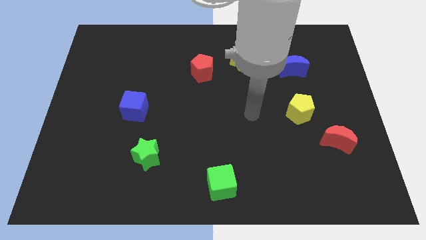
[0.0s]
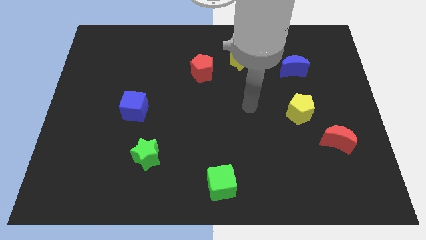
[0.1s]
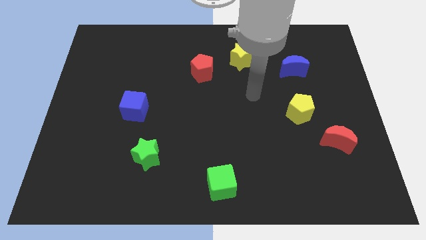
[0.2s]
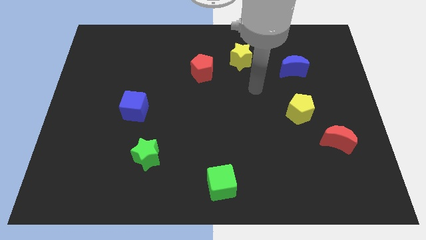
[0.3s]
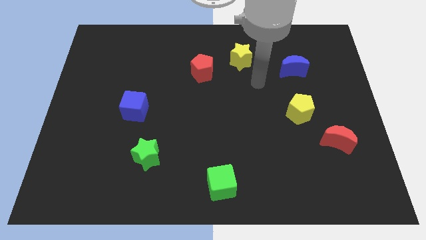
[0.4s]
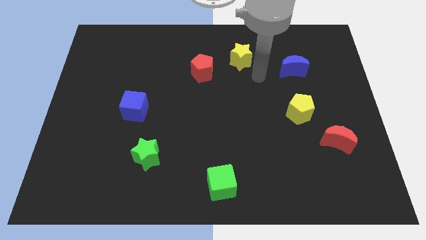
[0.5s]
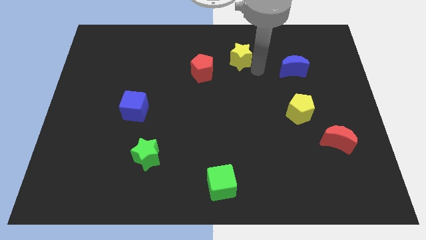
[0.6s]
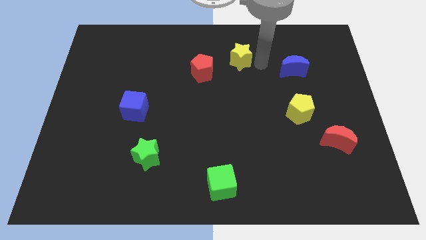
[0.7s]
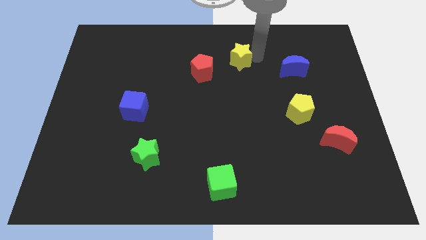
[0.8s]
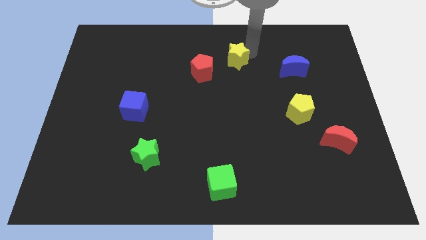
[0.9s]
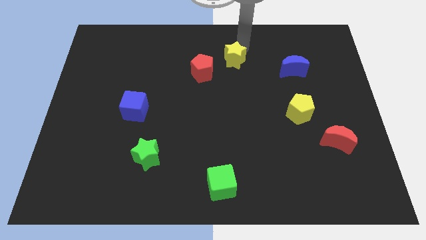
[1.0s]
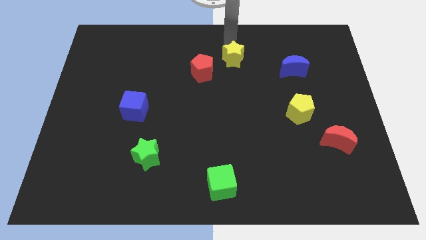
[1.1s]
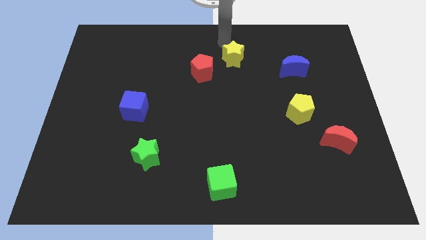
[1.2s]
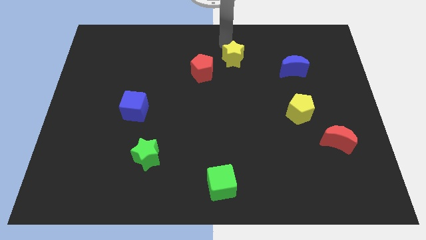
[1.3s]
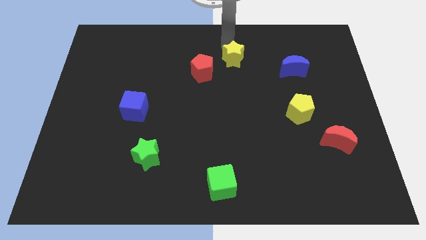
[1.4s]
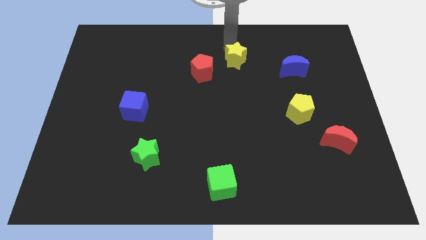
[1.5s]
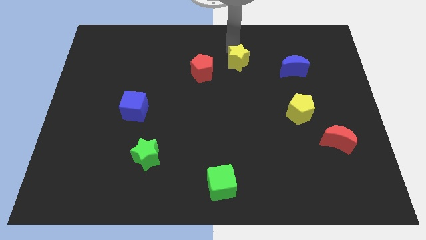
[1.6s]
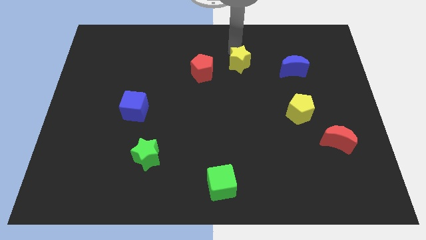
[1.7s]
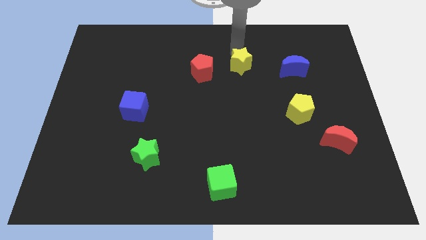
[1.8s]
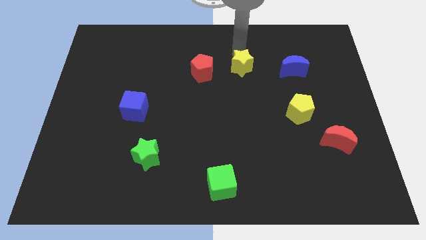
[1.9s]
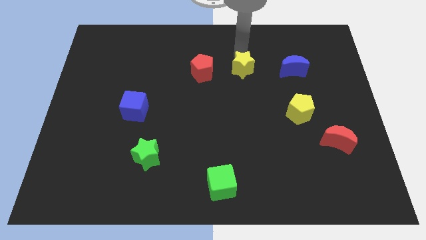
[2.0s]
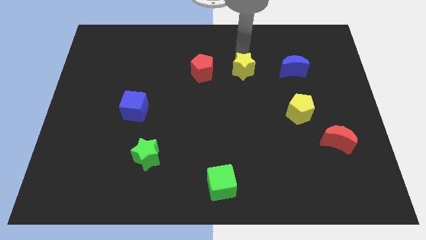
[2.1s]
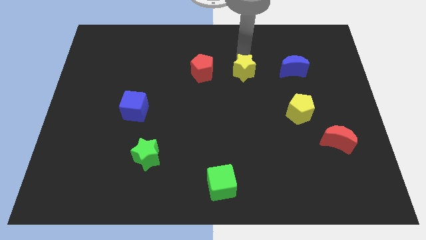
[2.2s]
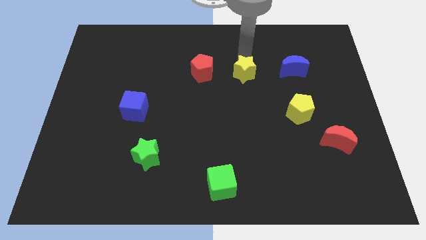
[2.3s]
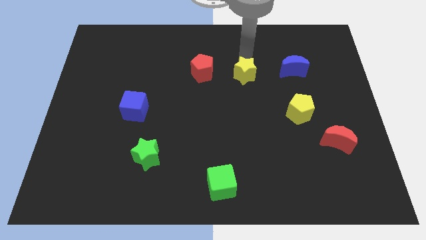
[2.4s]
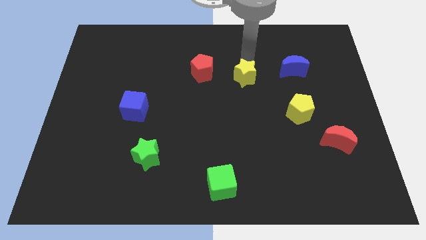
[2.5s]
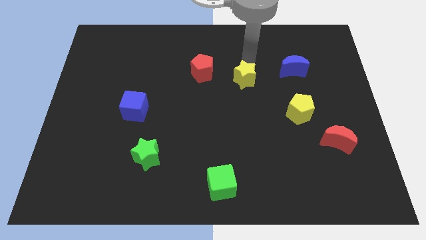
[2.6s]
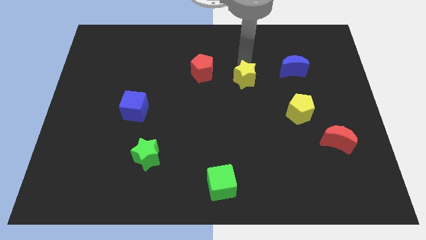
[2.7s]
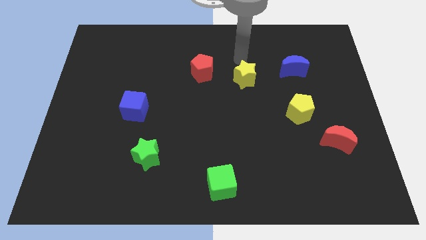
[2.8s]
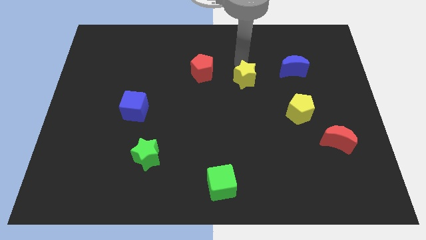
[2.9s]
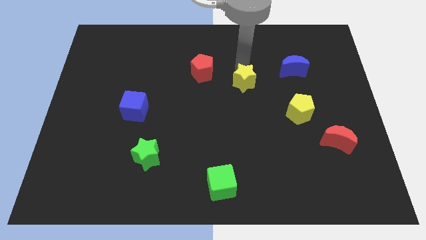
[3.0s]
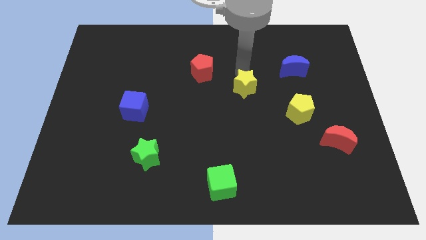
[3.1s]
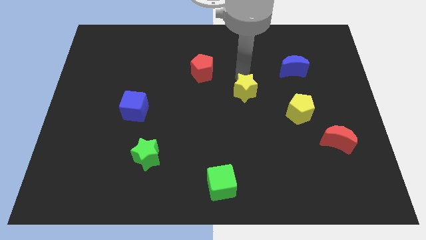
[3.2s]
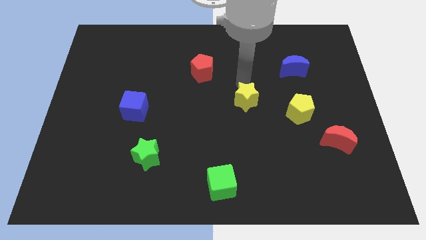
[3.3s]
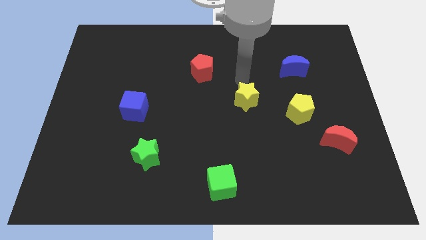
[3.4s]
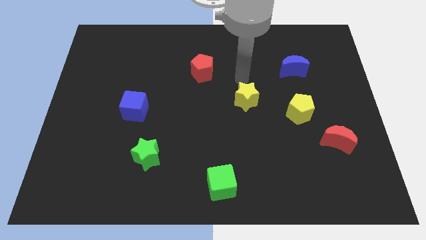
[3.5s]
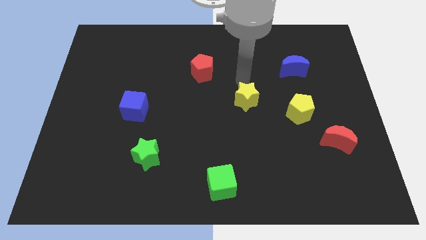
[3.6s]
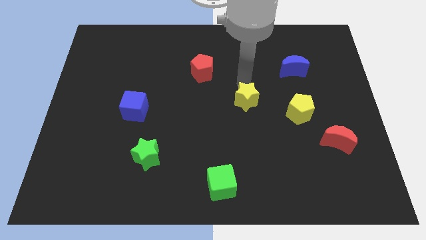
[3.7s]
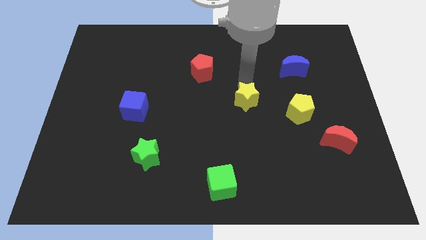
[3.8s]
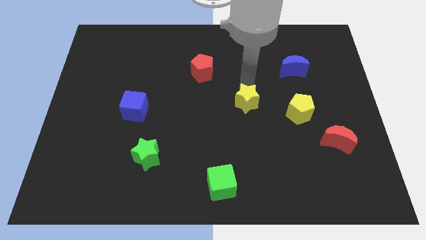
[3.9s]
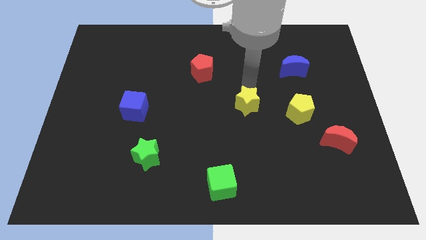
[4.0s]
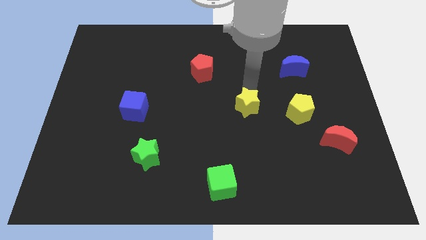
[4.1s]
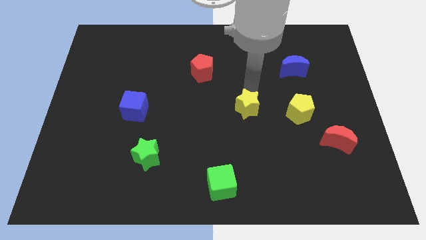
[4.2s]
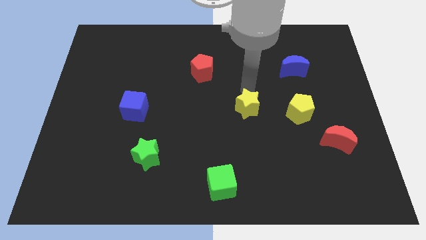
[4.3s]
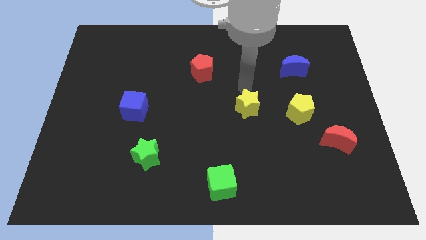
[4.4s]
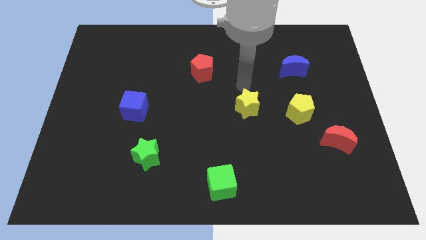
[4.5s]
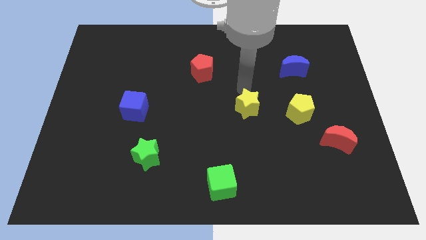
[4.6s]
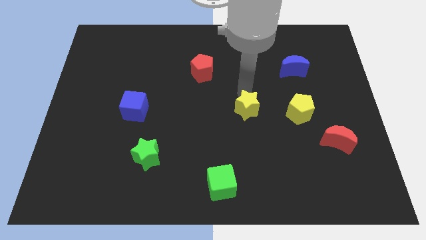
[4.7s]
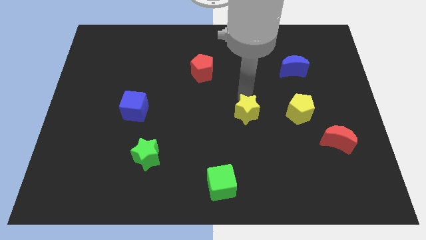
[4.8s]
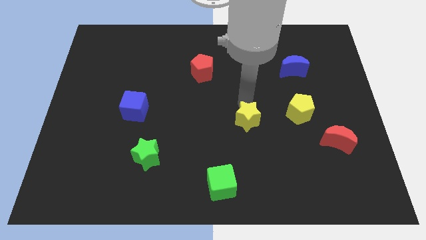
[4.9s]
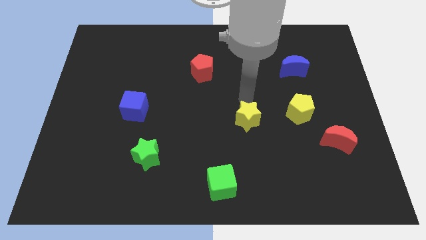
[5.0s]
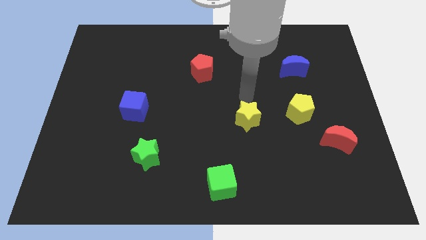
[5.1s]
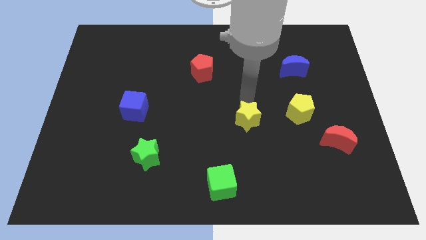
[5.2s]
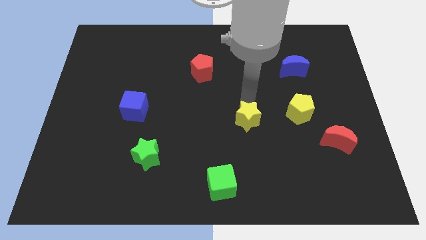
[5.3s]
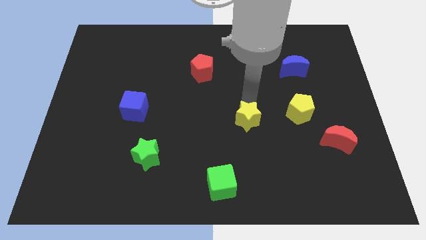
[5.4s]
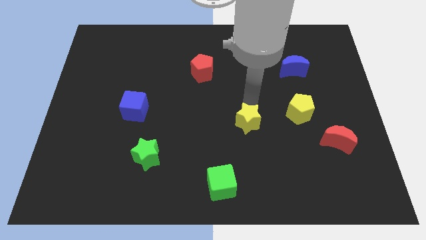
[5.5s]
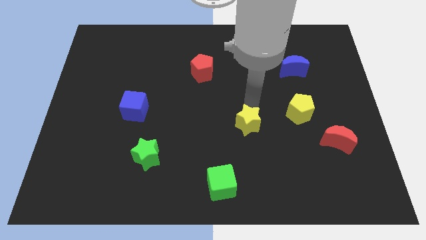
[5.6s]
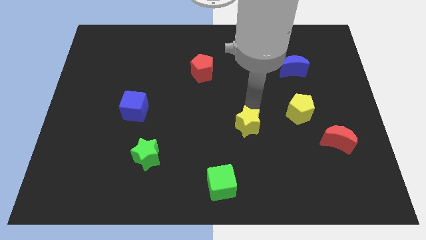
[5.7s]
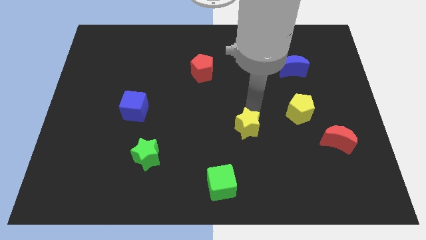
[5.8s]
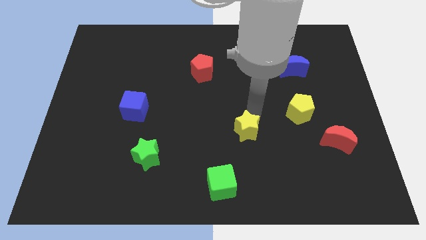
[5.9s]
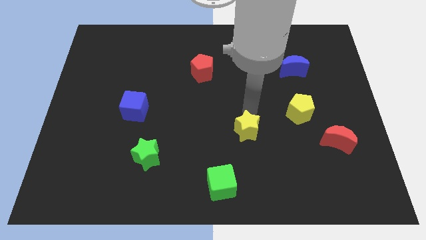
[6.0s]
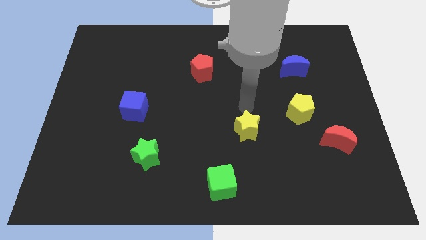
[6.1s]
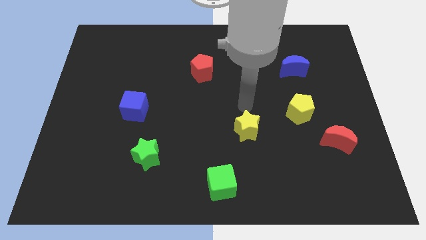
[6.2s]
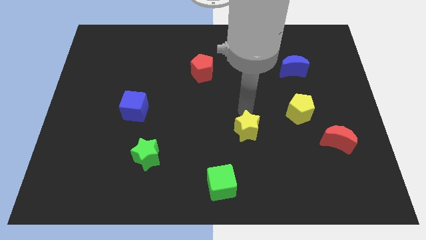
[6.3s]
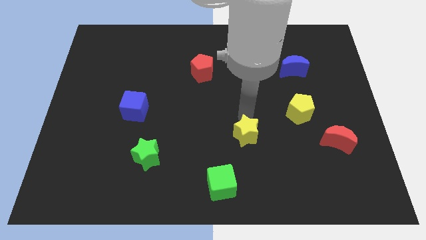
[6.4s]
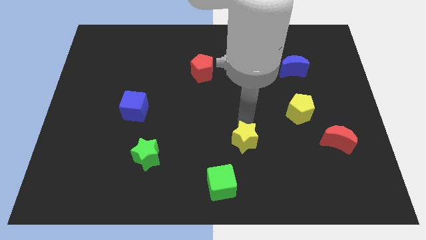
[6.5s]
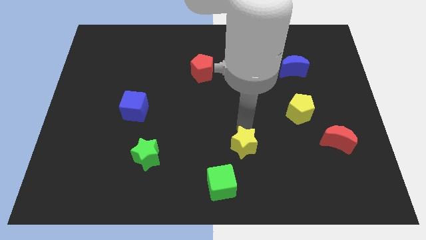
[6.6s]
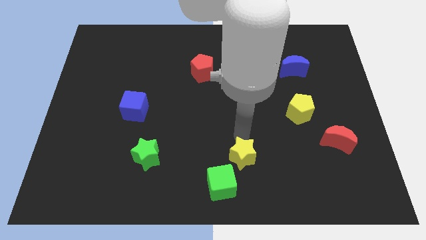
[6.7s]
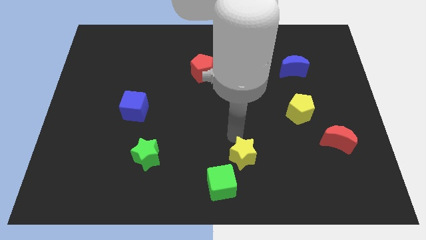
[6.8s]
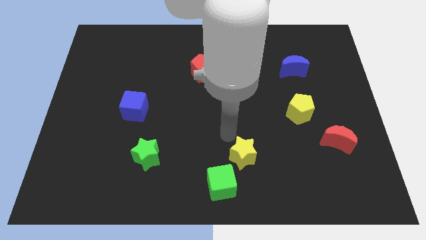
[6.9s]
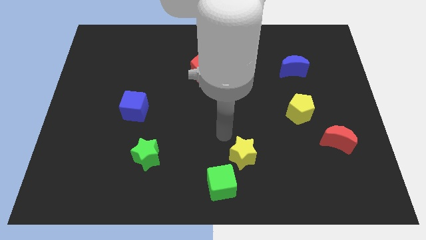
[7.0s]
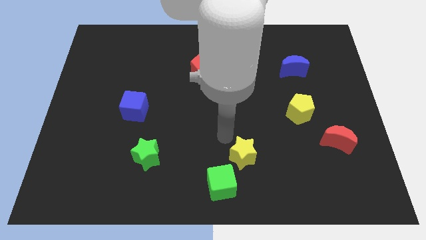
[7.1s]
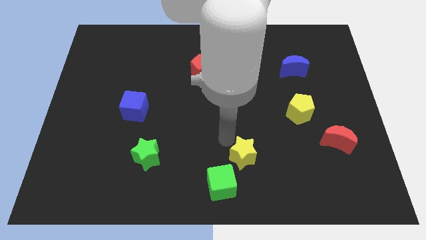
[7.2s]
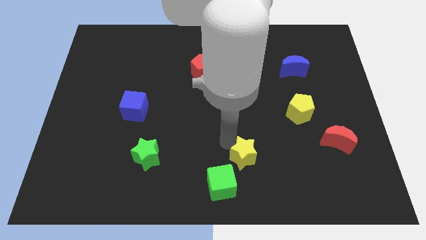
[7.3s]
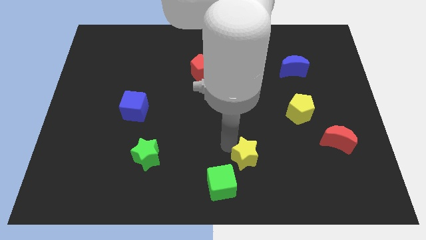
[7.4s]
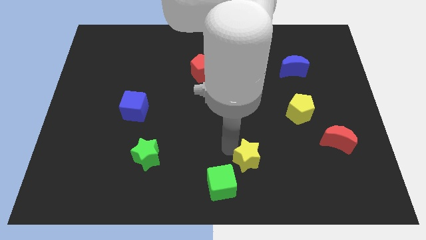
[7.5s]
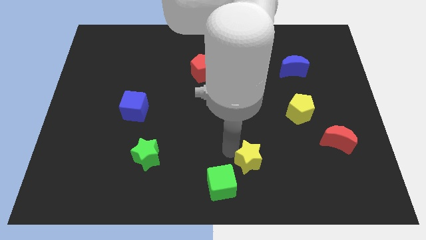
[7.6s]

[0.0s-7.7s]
push the yellow star to the bottom
